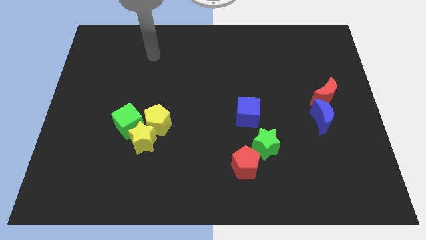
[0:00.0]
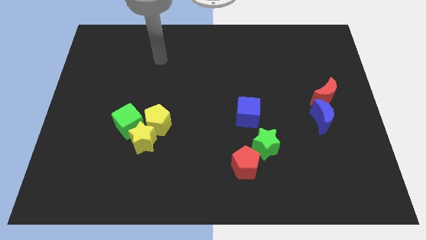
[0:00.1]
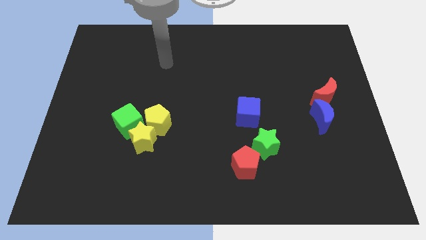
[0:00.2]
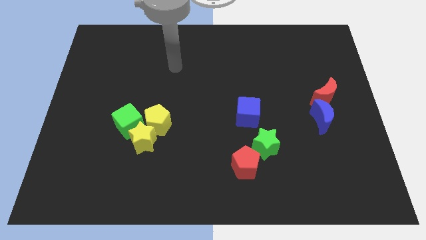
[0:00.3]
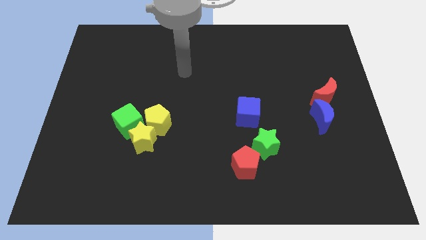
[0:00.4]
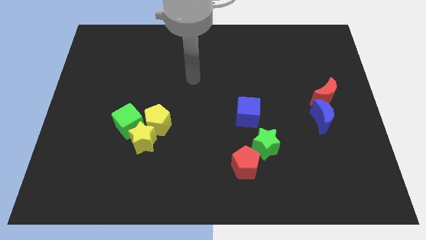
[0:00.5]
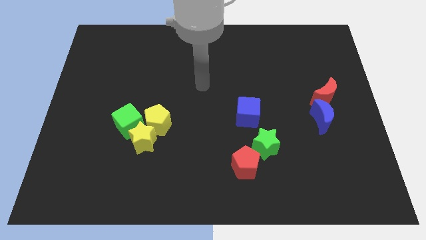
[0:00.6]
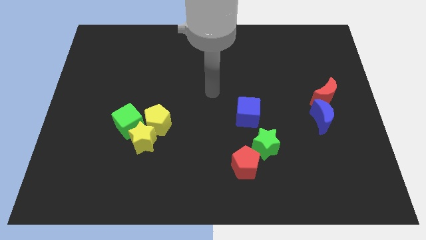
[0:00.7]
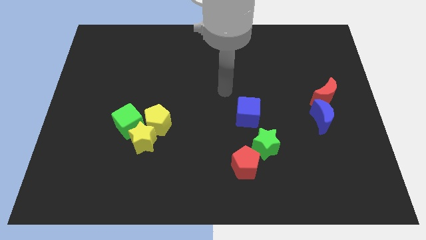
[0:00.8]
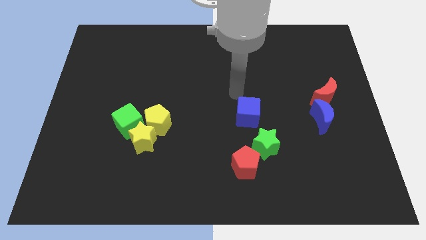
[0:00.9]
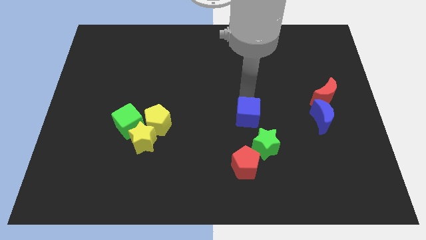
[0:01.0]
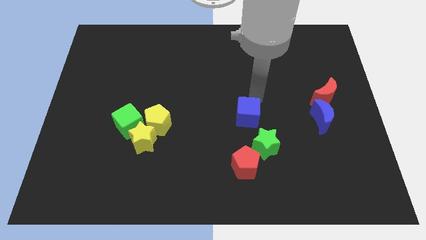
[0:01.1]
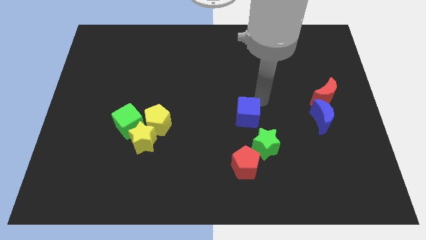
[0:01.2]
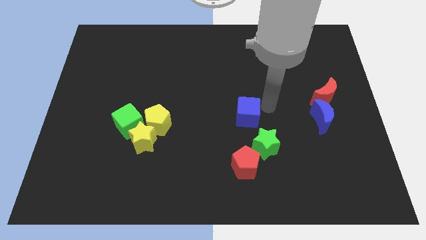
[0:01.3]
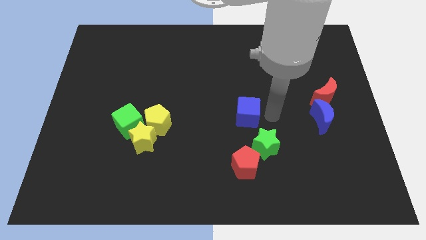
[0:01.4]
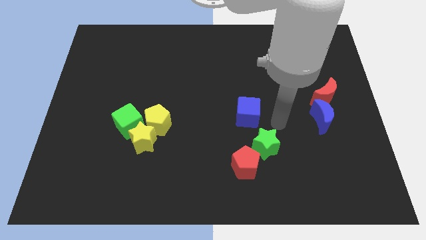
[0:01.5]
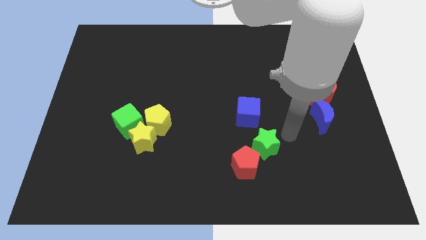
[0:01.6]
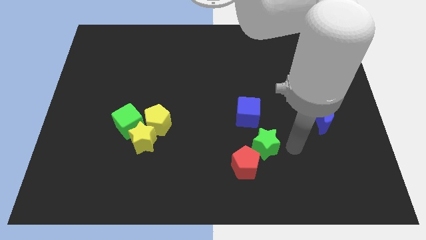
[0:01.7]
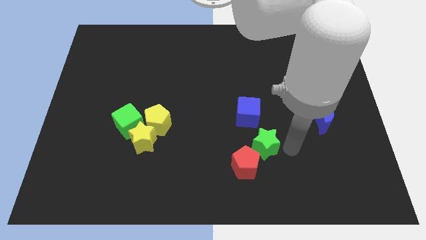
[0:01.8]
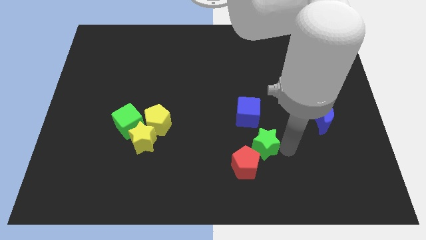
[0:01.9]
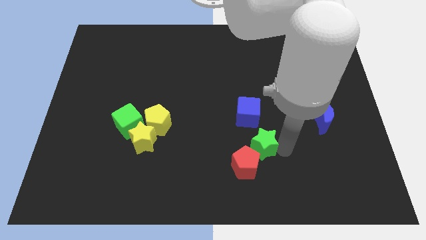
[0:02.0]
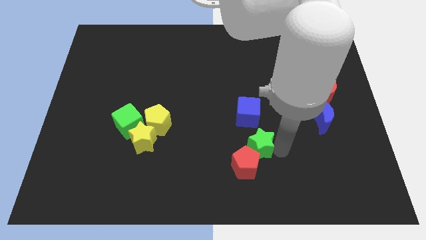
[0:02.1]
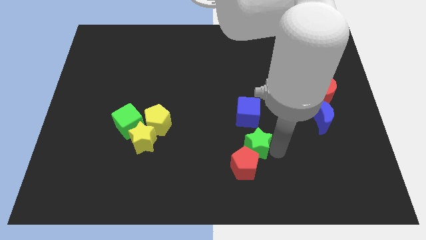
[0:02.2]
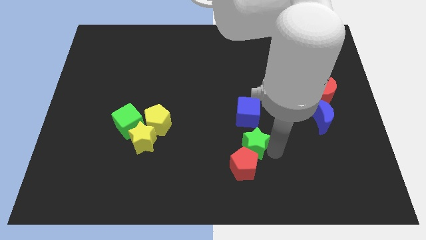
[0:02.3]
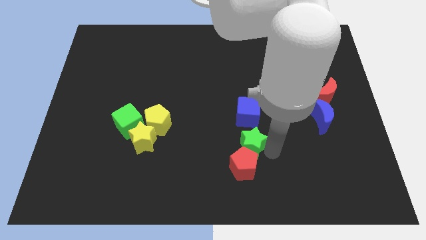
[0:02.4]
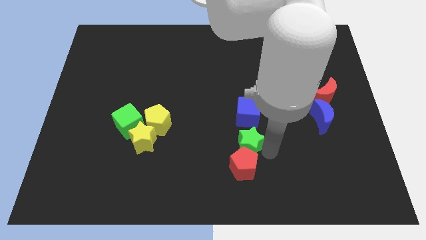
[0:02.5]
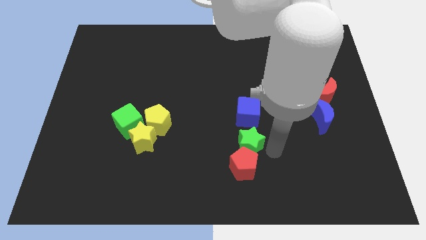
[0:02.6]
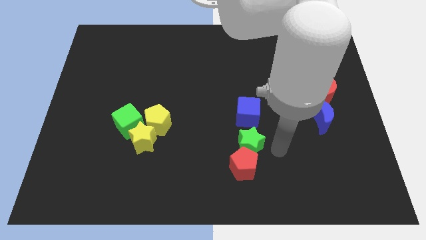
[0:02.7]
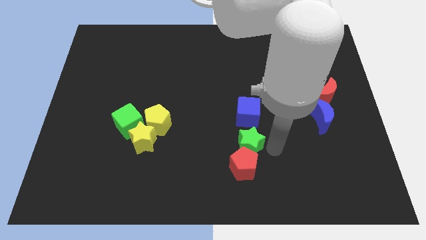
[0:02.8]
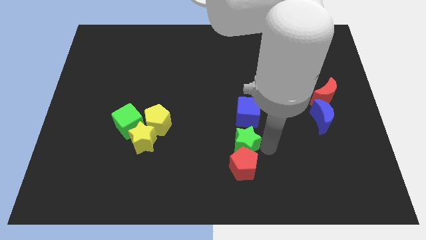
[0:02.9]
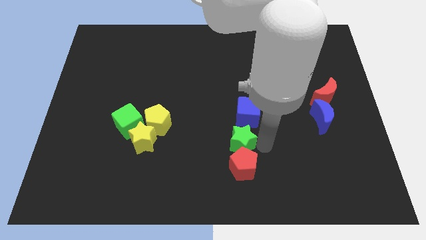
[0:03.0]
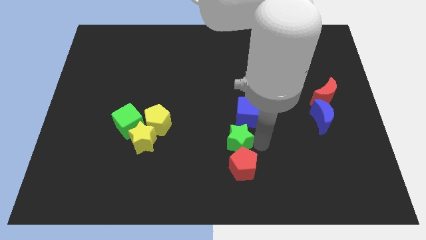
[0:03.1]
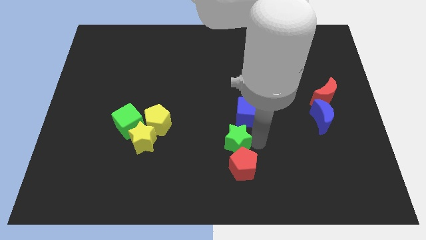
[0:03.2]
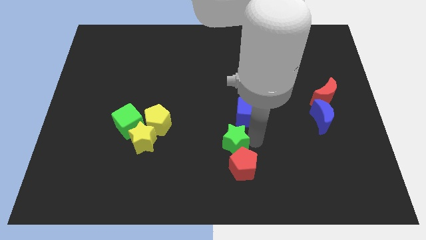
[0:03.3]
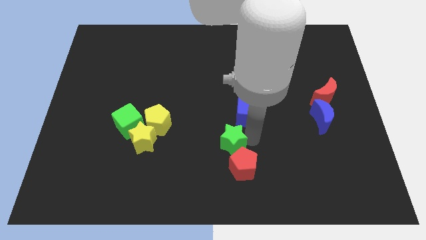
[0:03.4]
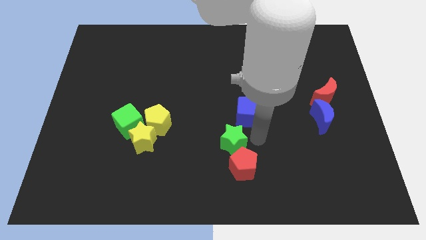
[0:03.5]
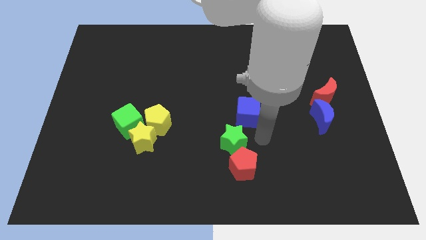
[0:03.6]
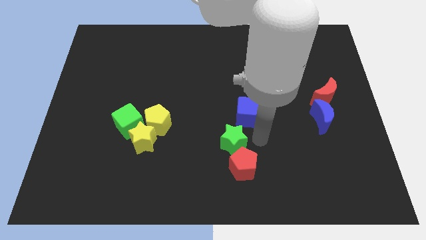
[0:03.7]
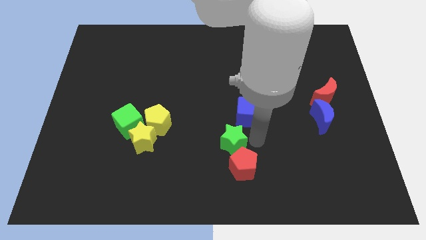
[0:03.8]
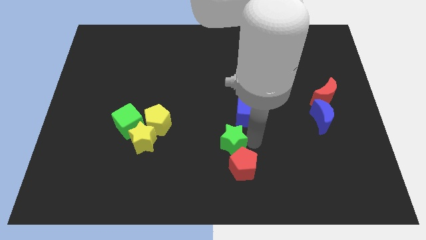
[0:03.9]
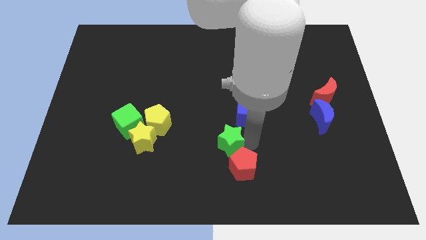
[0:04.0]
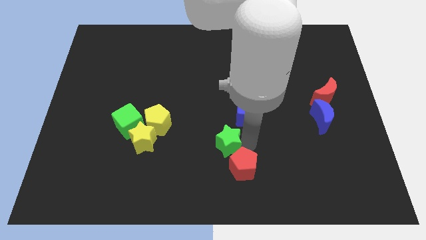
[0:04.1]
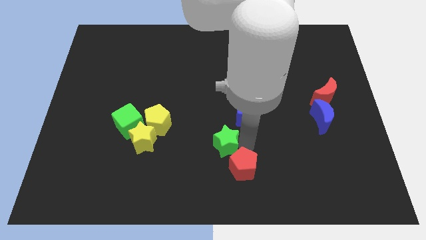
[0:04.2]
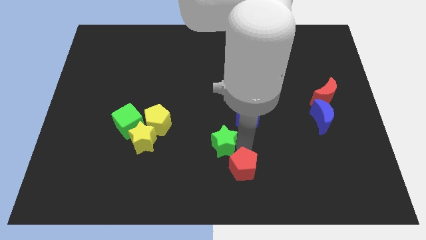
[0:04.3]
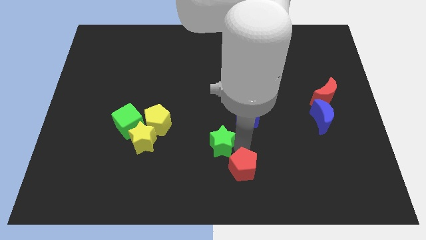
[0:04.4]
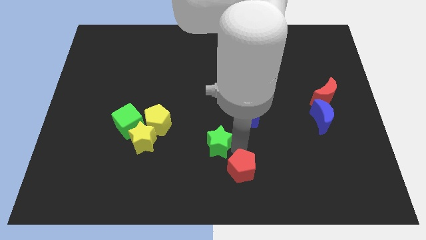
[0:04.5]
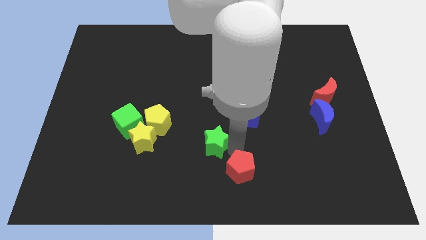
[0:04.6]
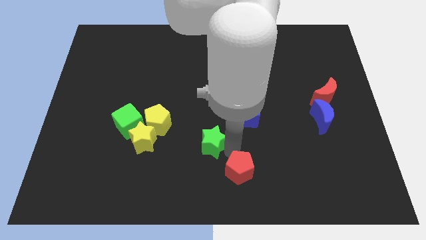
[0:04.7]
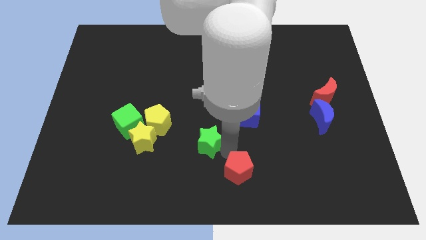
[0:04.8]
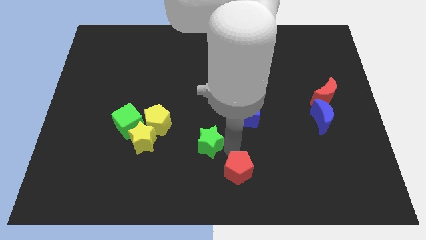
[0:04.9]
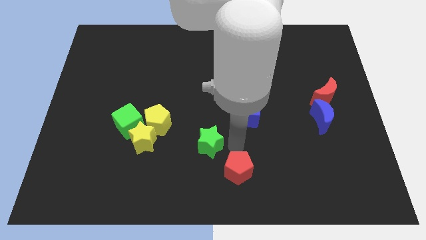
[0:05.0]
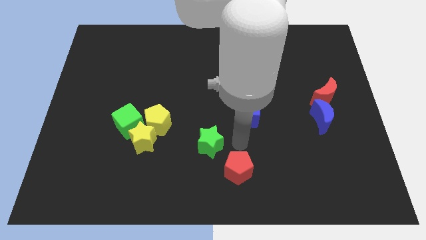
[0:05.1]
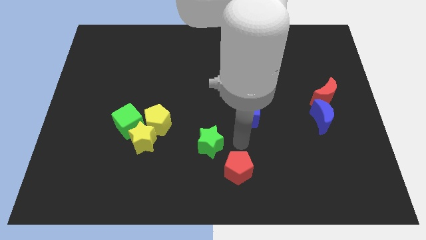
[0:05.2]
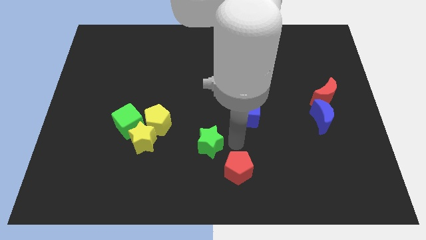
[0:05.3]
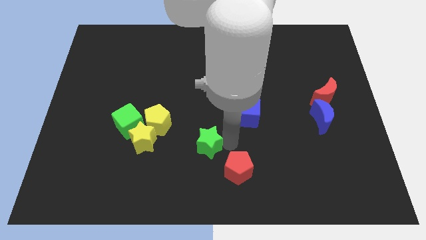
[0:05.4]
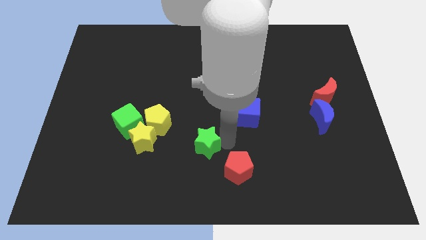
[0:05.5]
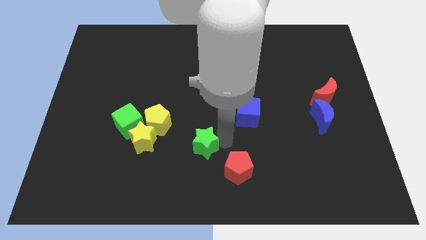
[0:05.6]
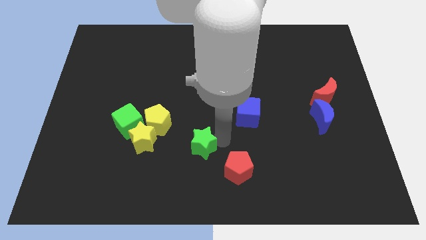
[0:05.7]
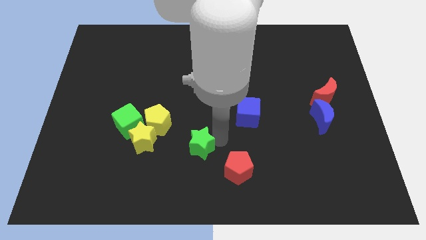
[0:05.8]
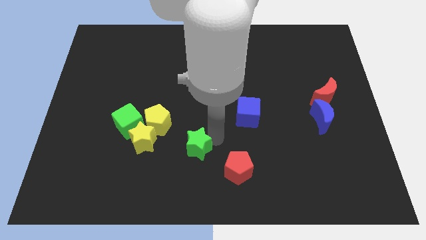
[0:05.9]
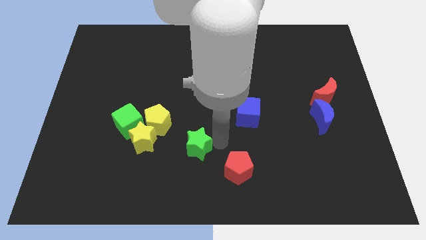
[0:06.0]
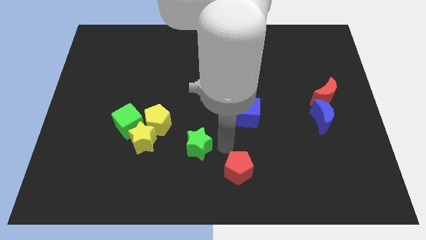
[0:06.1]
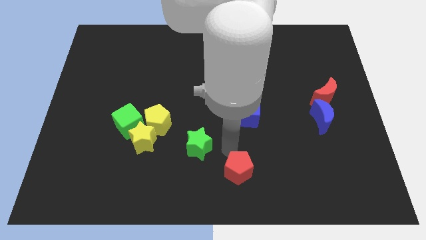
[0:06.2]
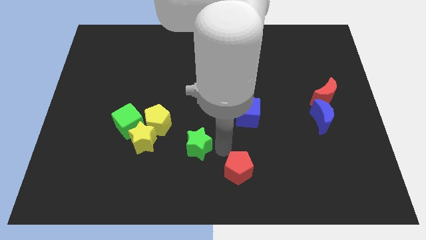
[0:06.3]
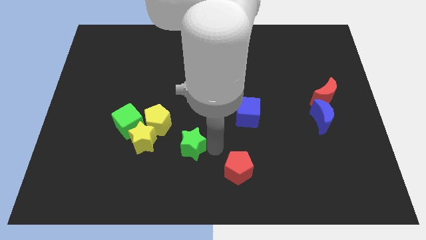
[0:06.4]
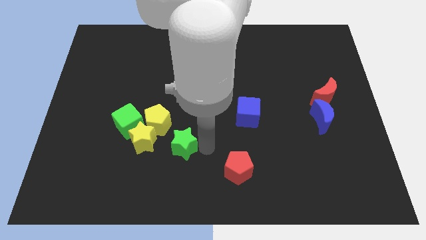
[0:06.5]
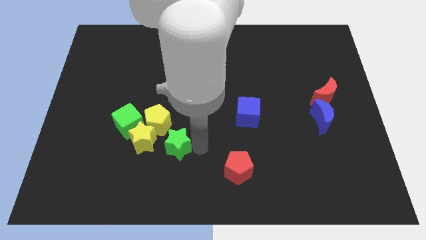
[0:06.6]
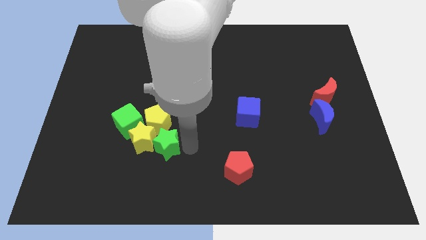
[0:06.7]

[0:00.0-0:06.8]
push the green star close to the yellow star
